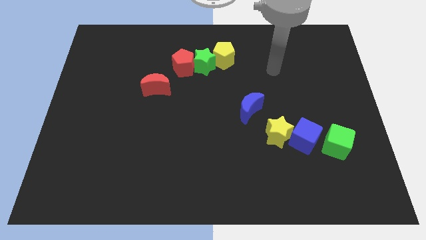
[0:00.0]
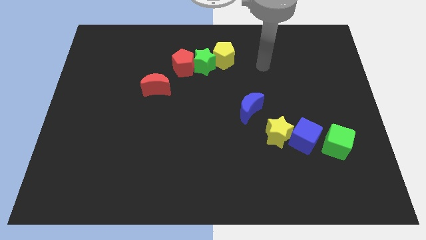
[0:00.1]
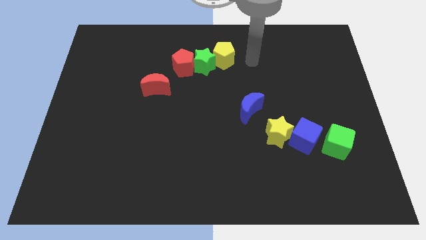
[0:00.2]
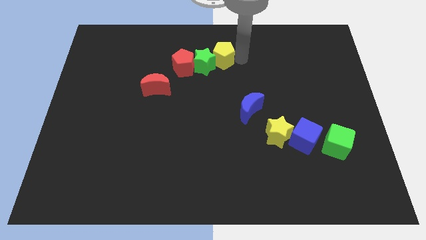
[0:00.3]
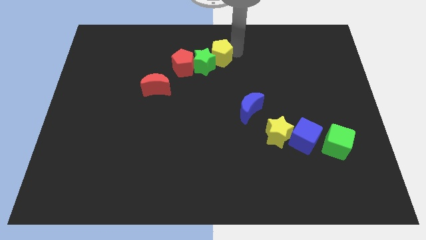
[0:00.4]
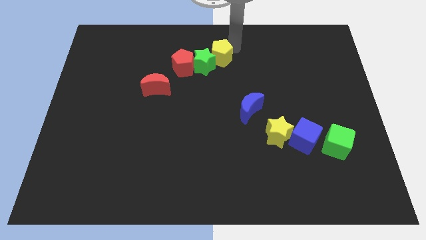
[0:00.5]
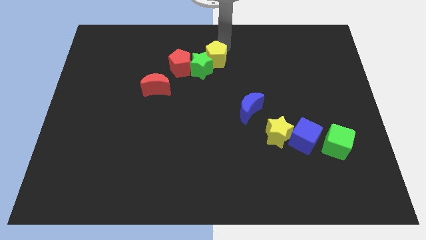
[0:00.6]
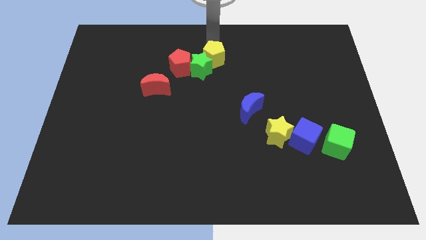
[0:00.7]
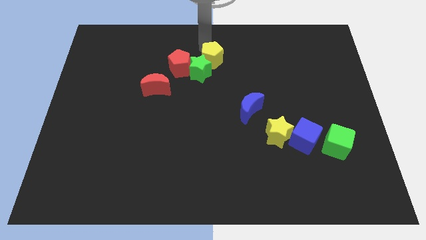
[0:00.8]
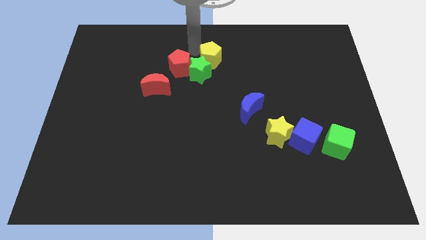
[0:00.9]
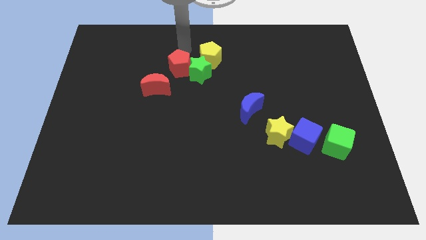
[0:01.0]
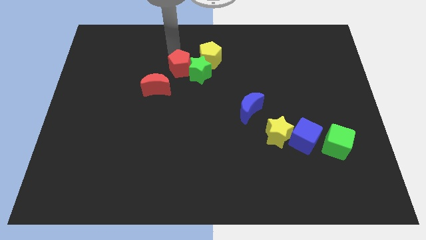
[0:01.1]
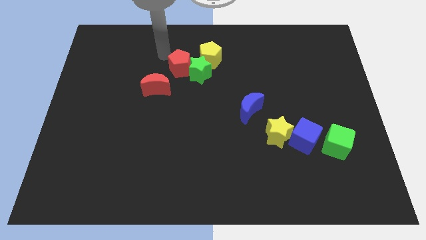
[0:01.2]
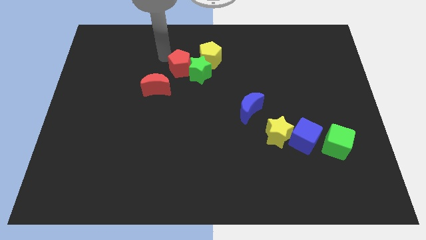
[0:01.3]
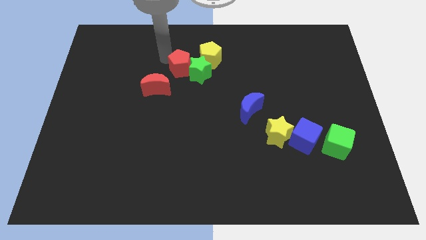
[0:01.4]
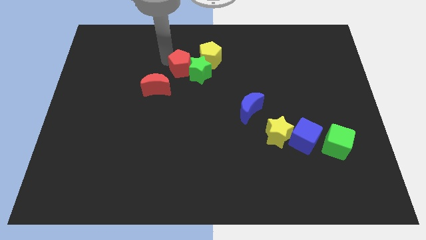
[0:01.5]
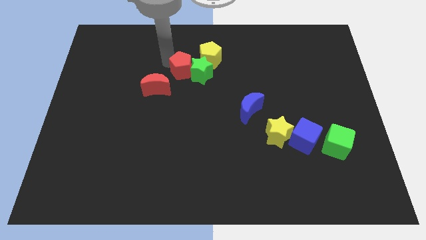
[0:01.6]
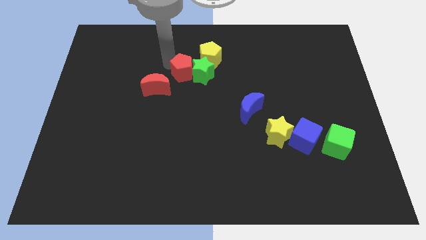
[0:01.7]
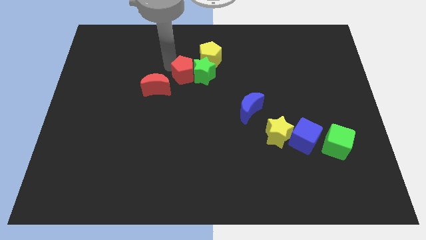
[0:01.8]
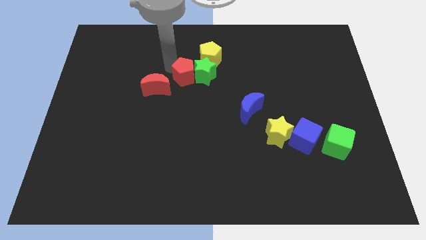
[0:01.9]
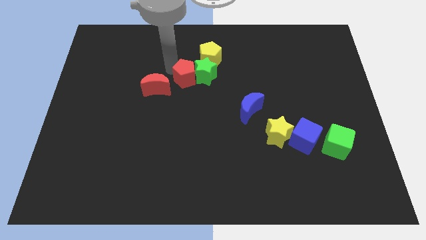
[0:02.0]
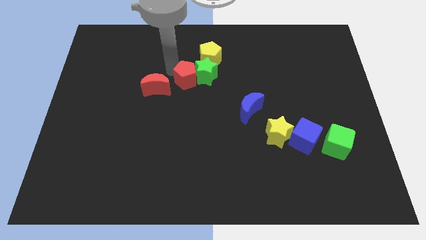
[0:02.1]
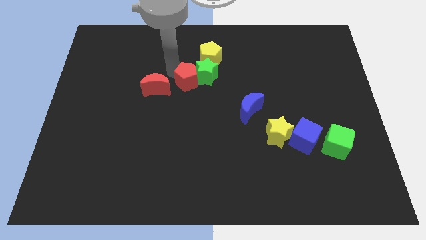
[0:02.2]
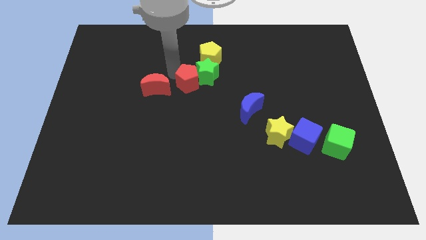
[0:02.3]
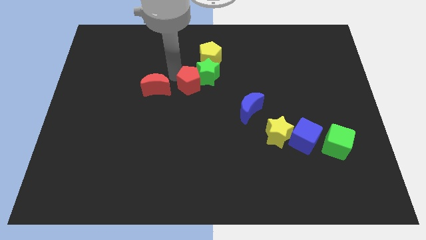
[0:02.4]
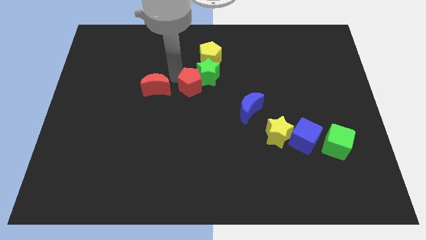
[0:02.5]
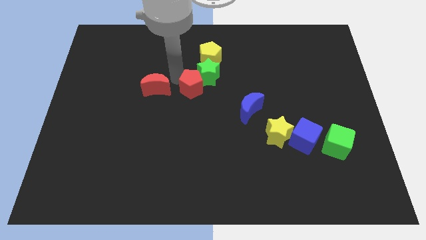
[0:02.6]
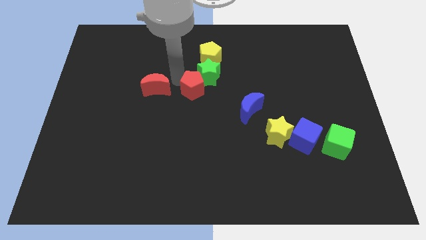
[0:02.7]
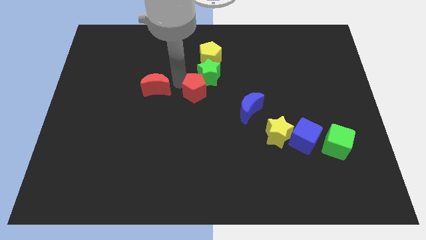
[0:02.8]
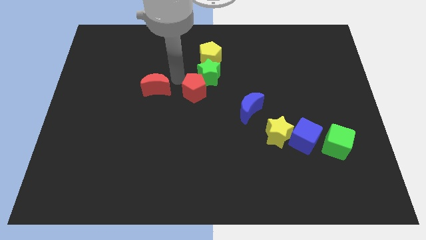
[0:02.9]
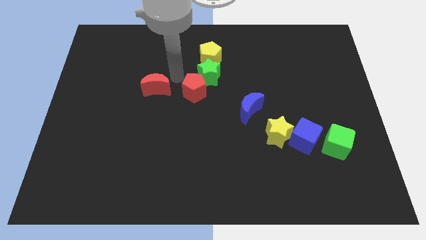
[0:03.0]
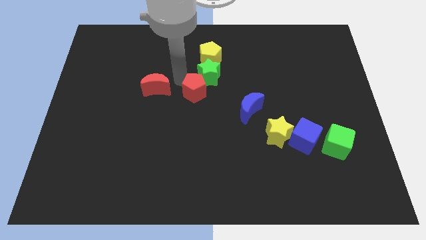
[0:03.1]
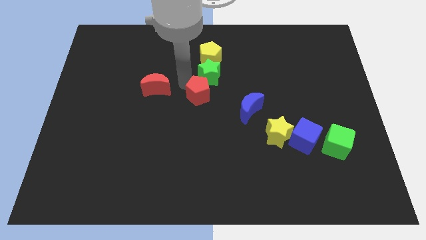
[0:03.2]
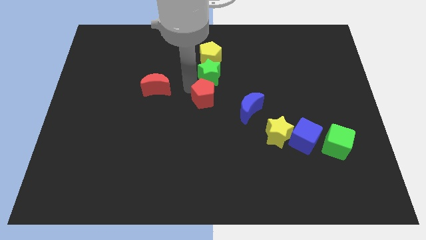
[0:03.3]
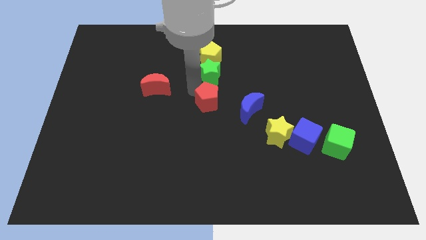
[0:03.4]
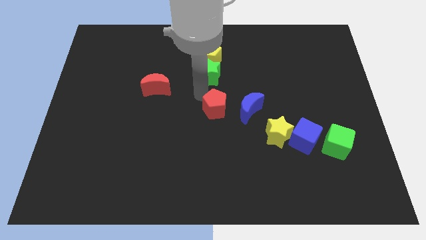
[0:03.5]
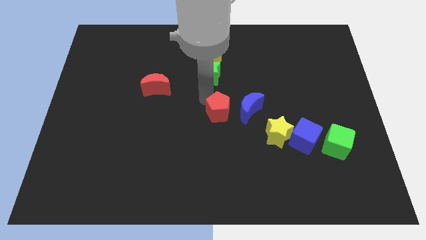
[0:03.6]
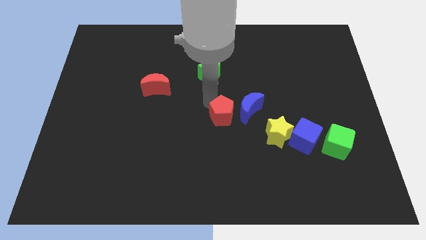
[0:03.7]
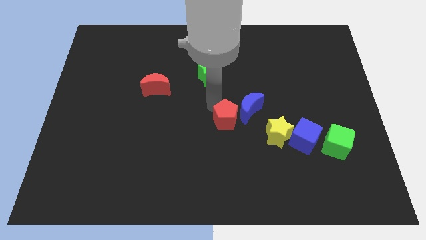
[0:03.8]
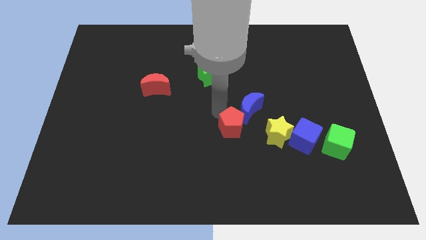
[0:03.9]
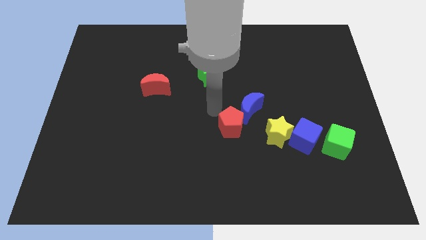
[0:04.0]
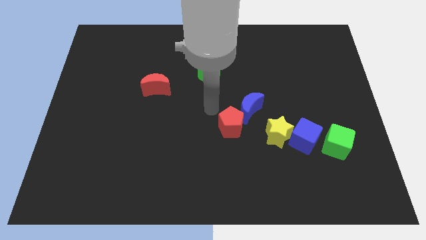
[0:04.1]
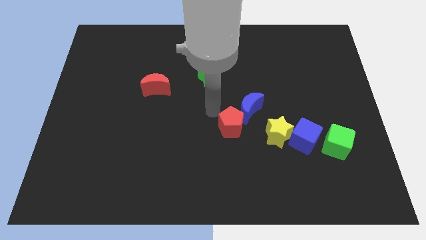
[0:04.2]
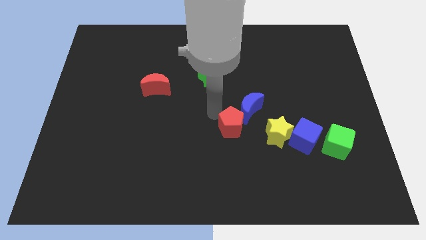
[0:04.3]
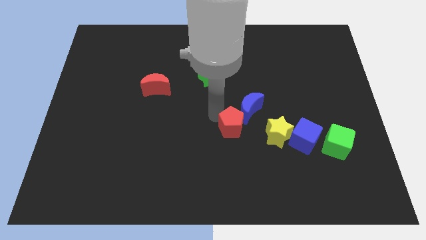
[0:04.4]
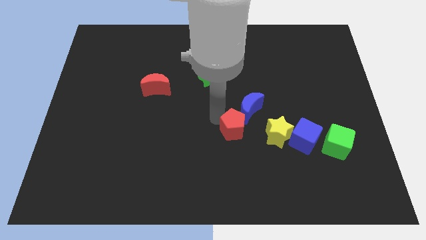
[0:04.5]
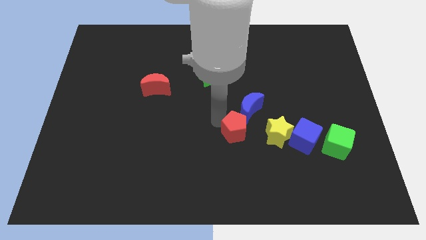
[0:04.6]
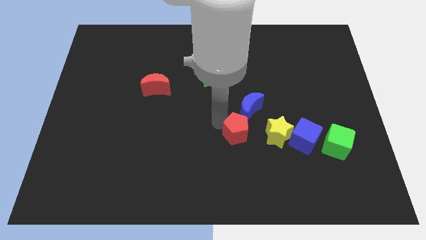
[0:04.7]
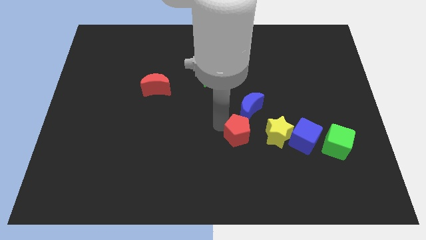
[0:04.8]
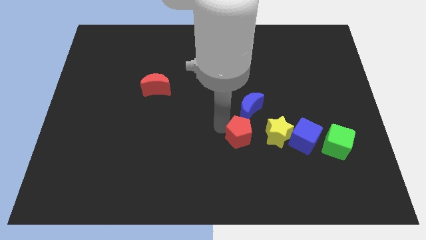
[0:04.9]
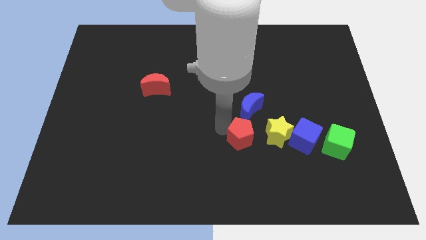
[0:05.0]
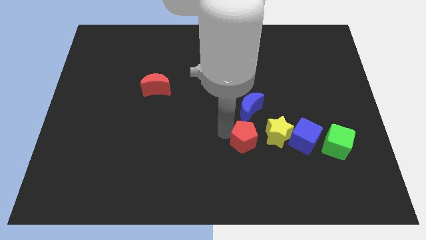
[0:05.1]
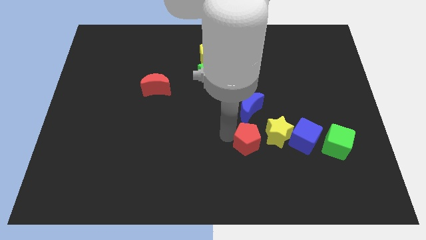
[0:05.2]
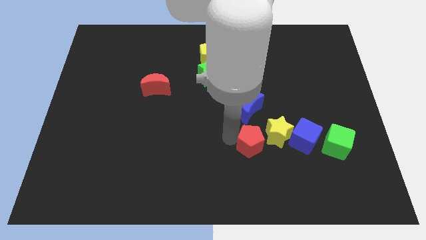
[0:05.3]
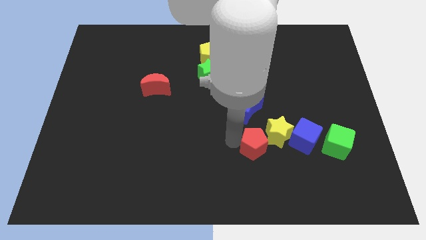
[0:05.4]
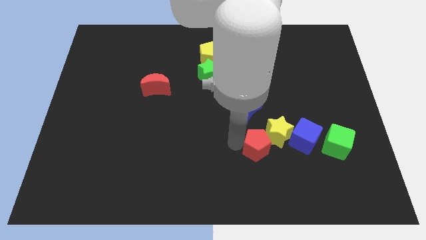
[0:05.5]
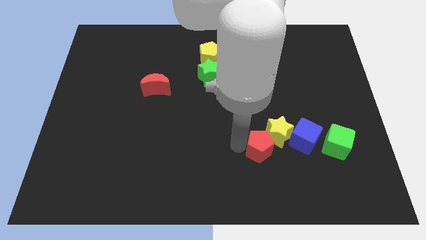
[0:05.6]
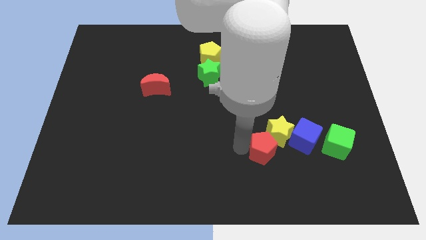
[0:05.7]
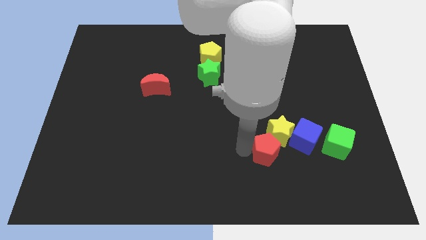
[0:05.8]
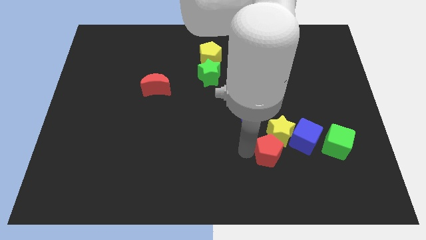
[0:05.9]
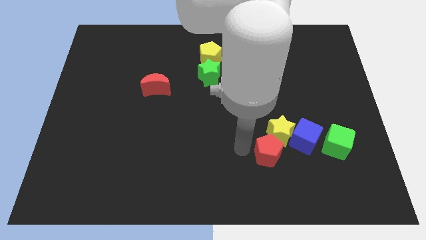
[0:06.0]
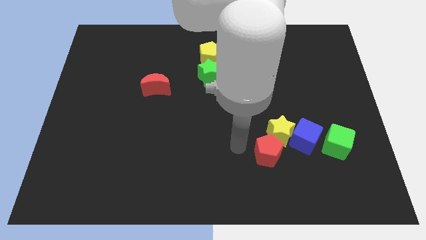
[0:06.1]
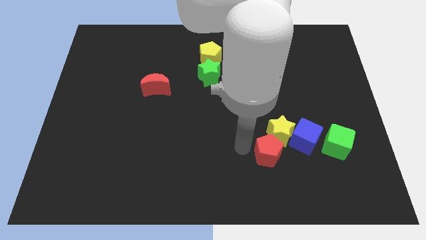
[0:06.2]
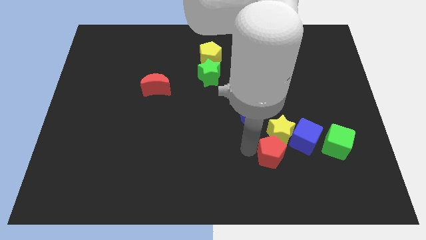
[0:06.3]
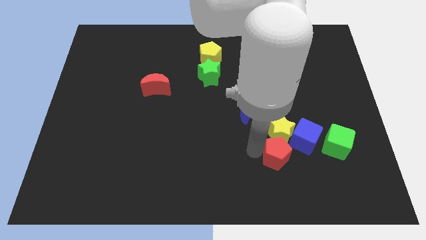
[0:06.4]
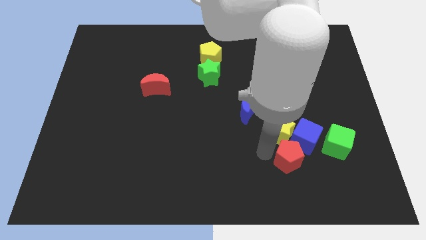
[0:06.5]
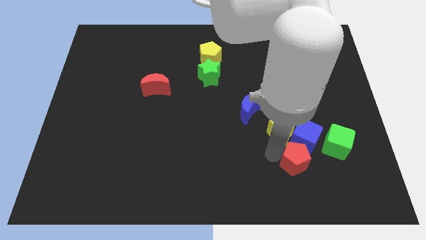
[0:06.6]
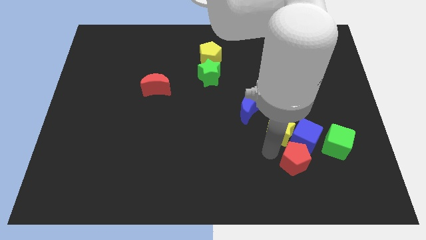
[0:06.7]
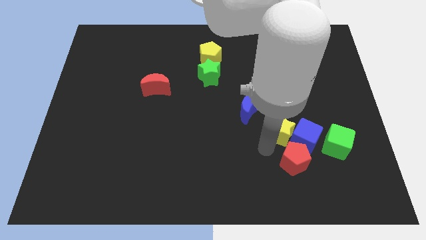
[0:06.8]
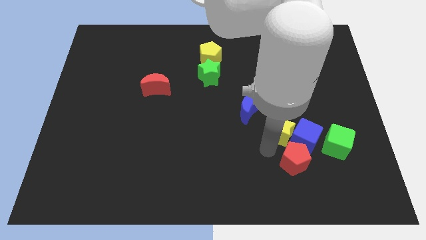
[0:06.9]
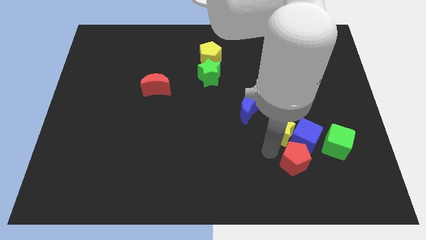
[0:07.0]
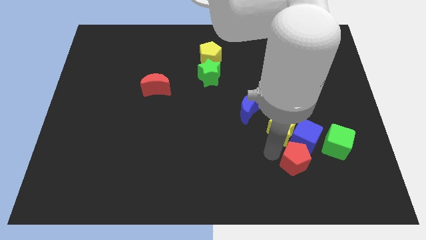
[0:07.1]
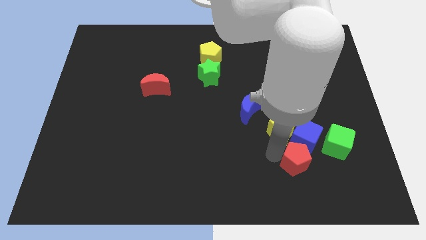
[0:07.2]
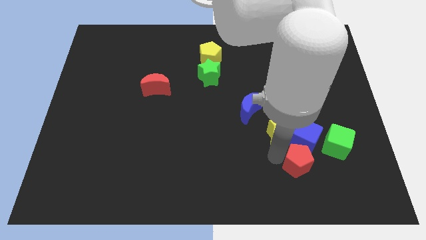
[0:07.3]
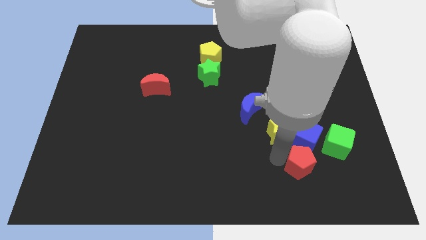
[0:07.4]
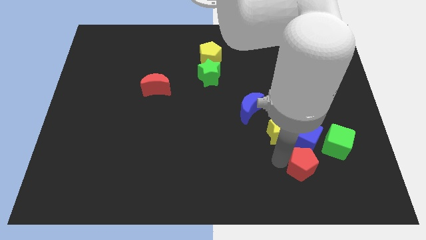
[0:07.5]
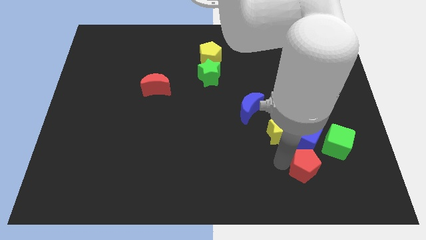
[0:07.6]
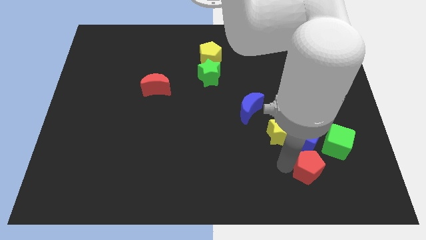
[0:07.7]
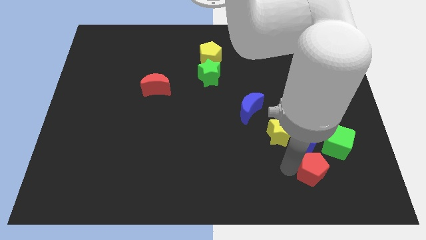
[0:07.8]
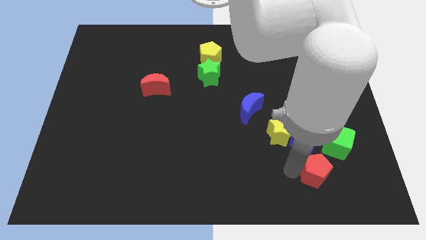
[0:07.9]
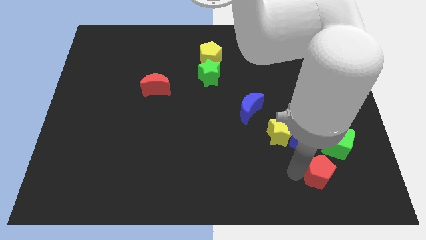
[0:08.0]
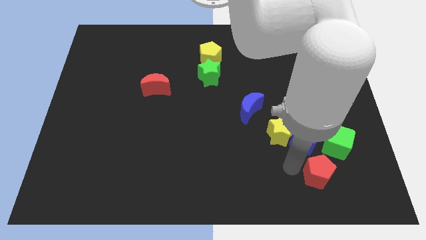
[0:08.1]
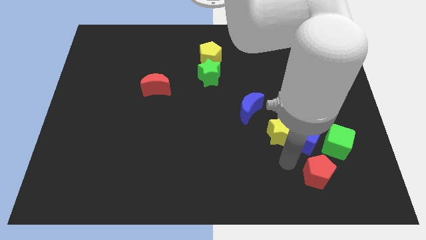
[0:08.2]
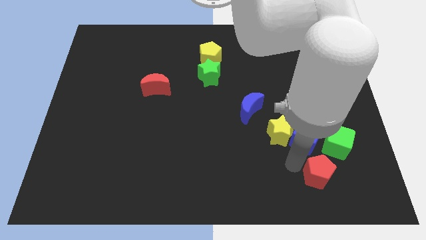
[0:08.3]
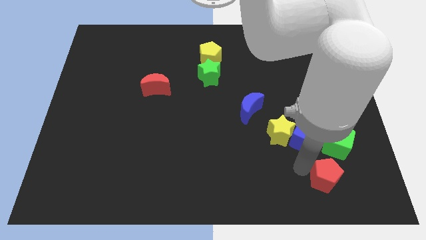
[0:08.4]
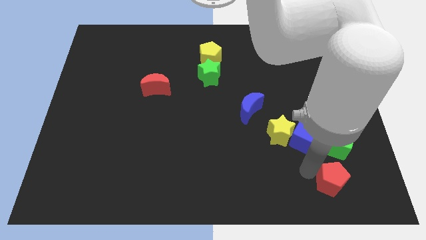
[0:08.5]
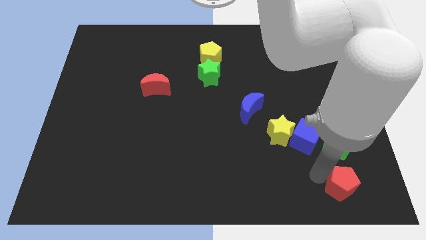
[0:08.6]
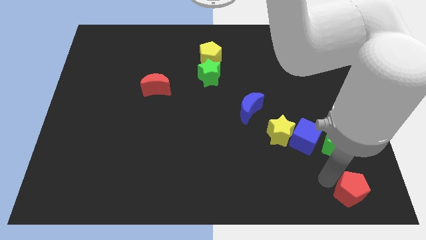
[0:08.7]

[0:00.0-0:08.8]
push the red pentagon to the bottom right
